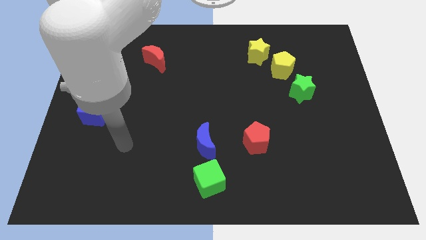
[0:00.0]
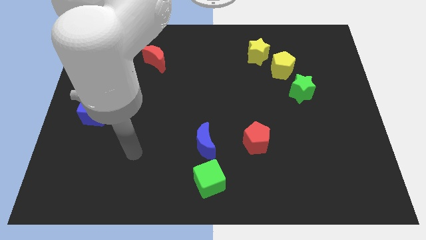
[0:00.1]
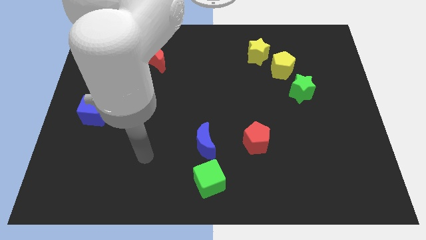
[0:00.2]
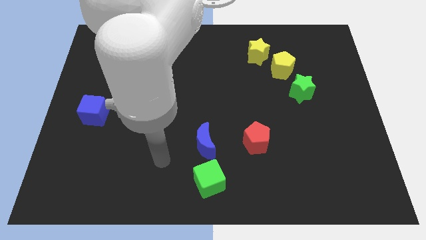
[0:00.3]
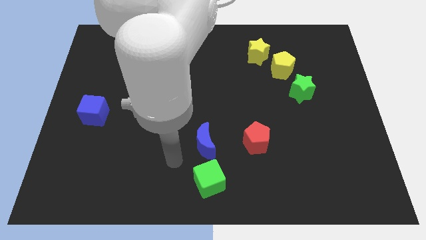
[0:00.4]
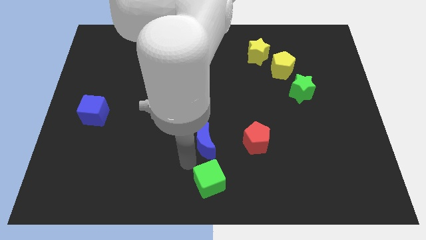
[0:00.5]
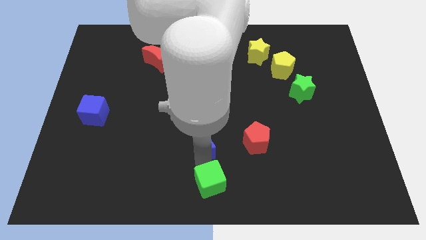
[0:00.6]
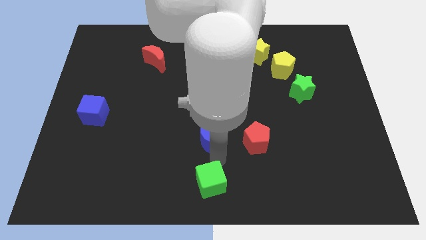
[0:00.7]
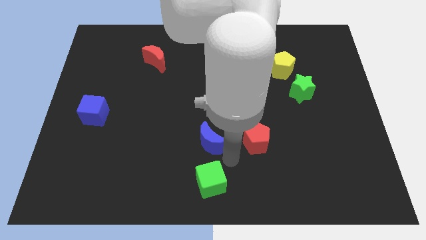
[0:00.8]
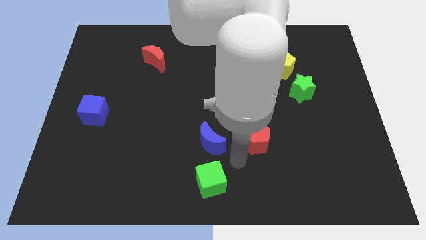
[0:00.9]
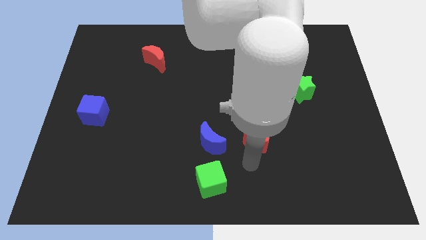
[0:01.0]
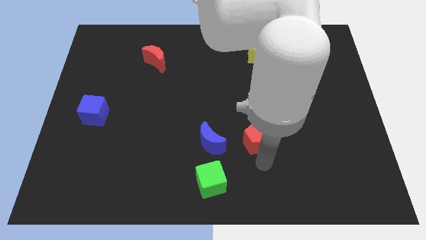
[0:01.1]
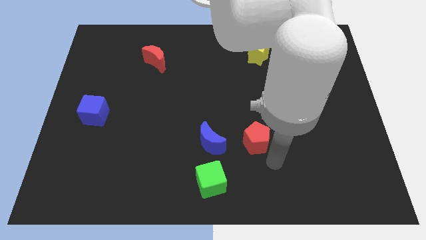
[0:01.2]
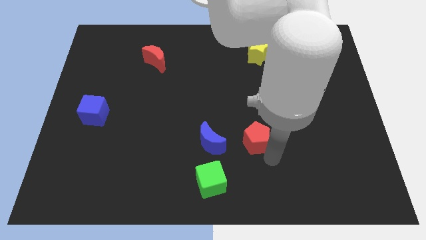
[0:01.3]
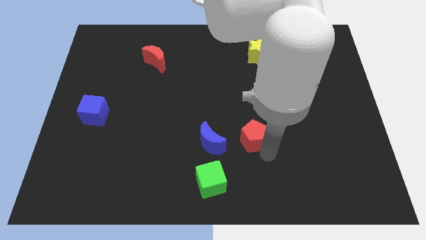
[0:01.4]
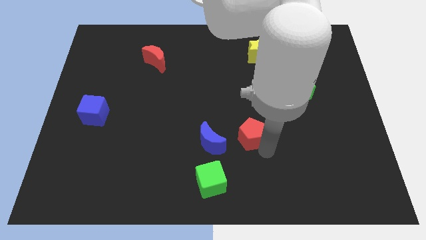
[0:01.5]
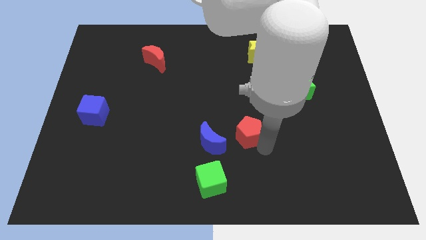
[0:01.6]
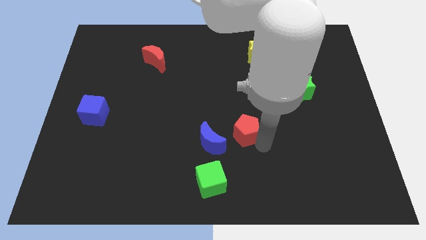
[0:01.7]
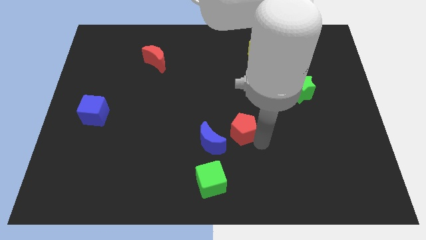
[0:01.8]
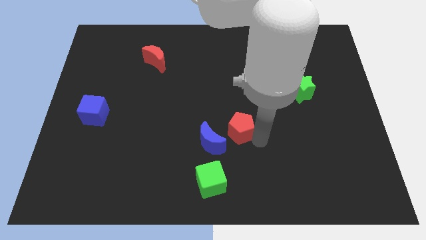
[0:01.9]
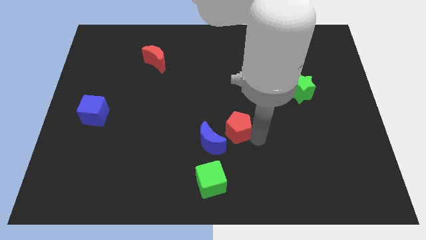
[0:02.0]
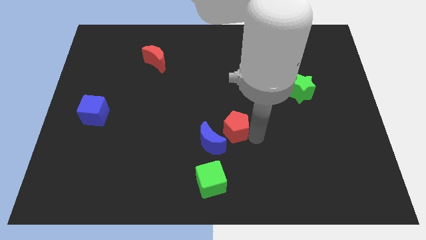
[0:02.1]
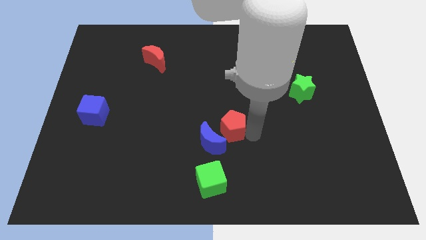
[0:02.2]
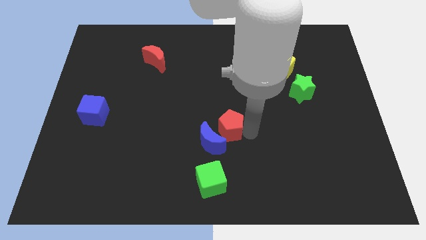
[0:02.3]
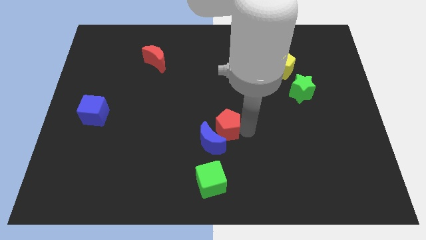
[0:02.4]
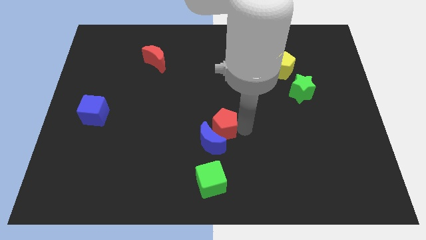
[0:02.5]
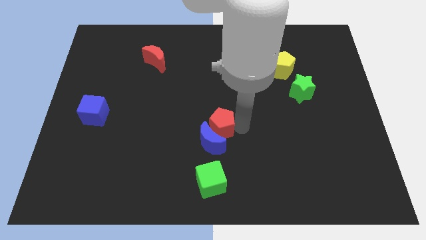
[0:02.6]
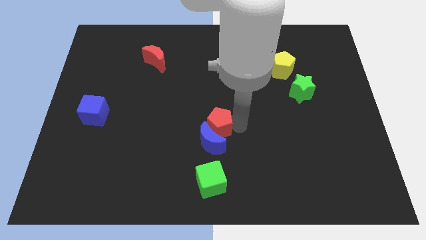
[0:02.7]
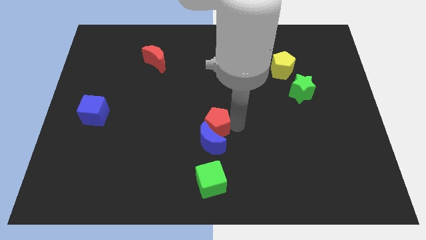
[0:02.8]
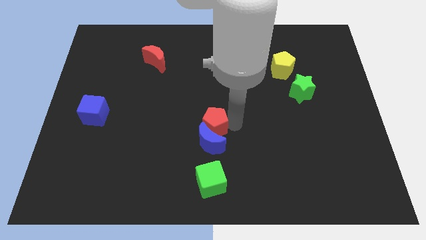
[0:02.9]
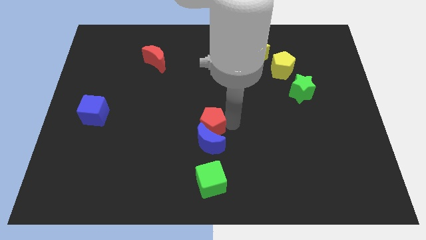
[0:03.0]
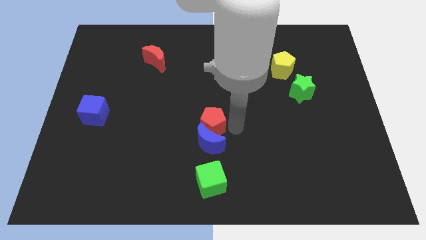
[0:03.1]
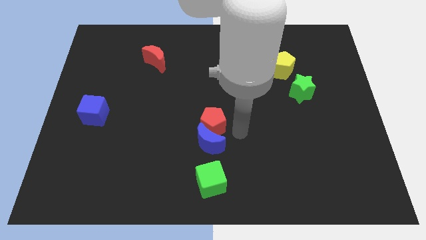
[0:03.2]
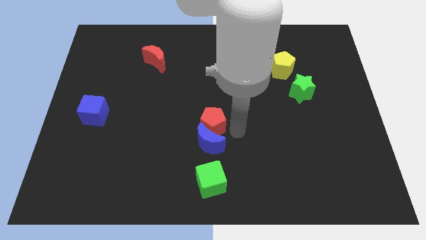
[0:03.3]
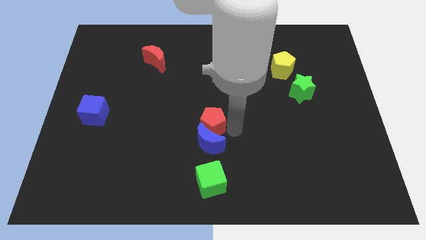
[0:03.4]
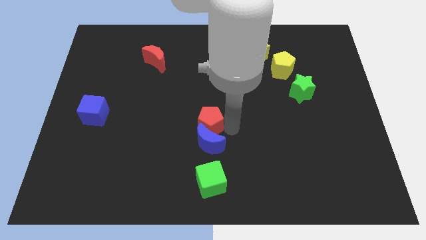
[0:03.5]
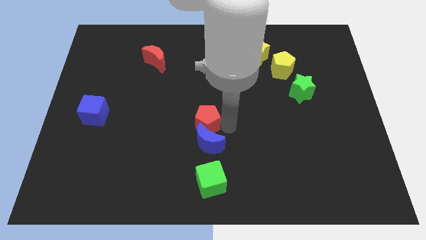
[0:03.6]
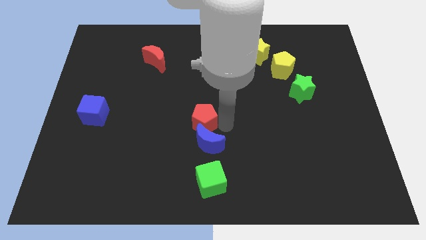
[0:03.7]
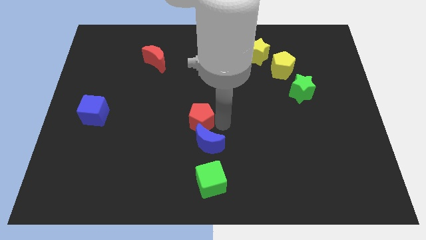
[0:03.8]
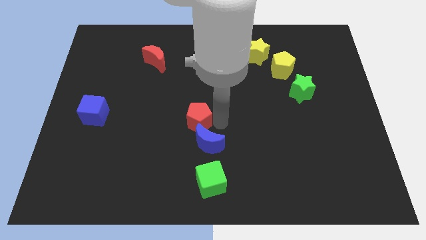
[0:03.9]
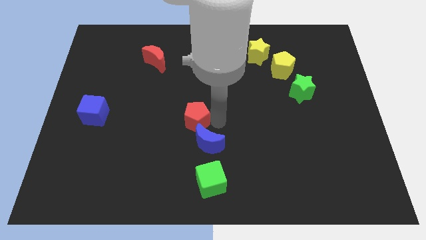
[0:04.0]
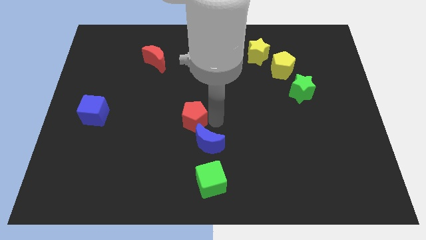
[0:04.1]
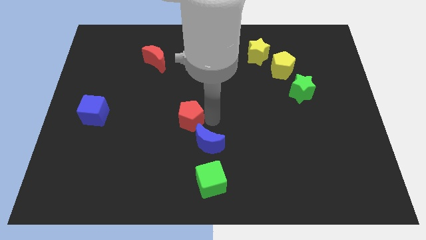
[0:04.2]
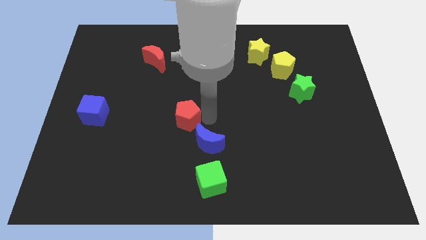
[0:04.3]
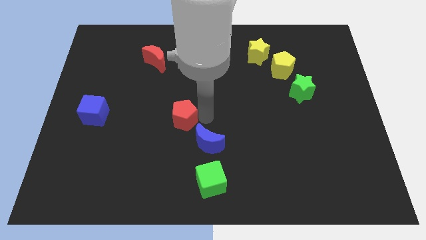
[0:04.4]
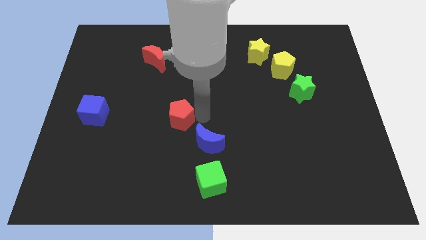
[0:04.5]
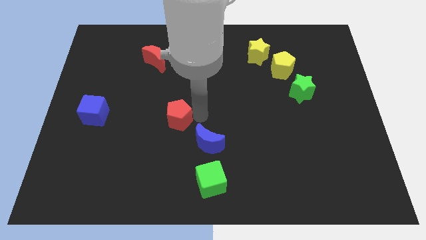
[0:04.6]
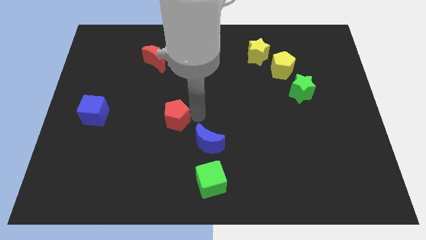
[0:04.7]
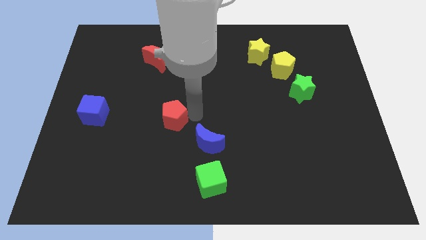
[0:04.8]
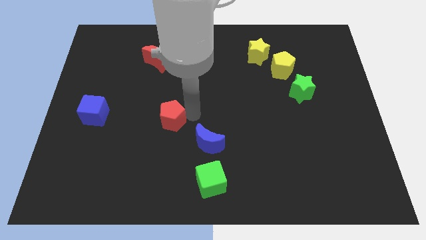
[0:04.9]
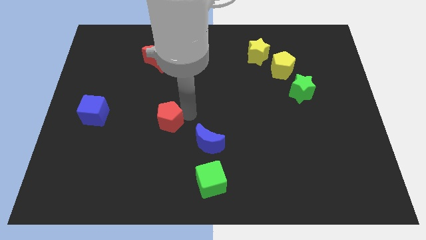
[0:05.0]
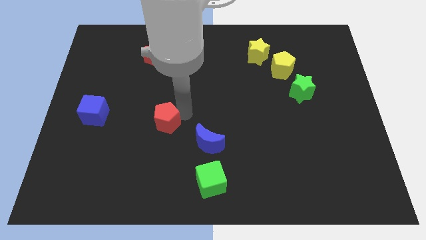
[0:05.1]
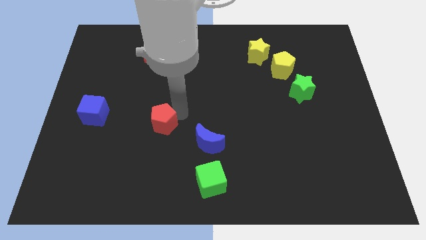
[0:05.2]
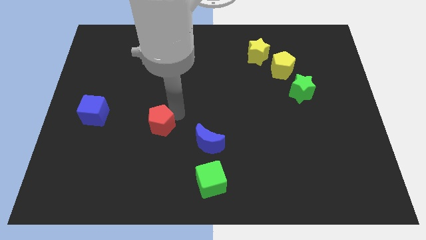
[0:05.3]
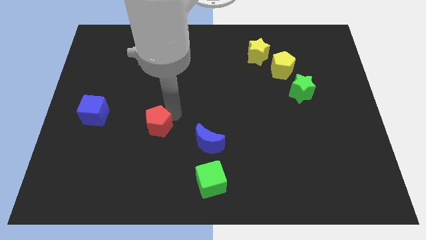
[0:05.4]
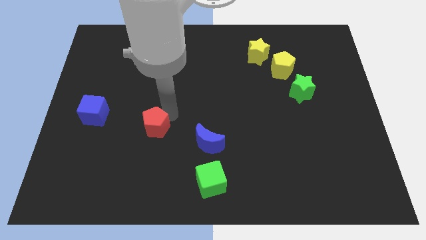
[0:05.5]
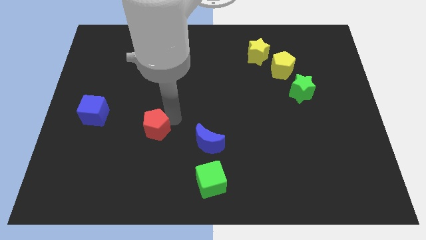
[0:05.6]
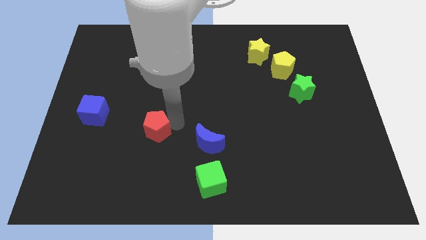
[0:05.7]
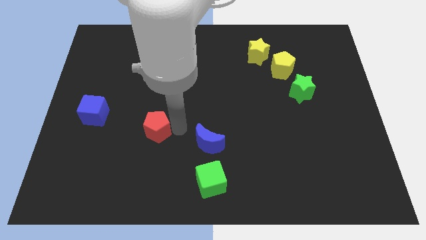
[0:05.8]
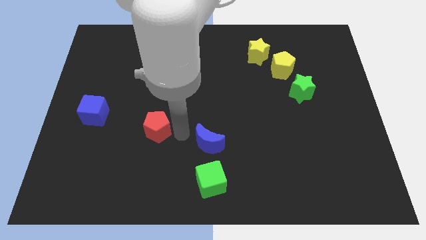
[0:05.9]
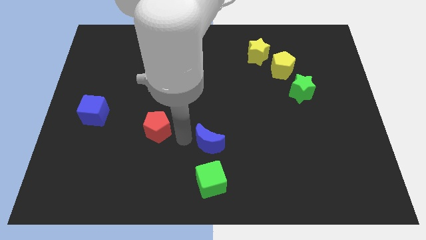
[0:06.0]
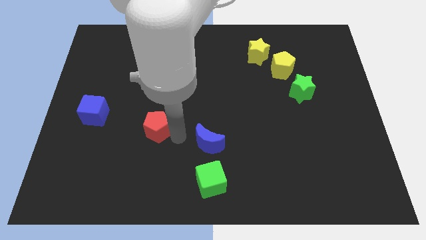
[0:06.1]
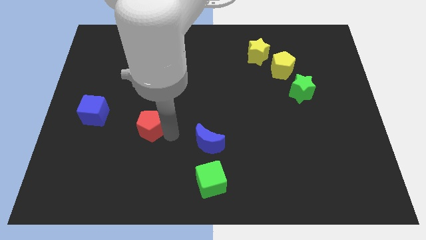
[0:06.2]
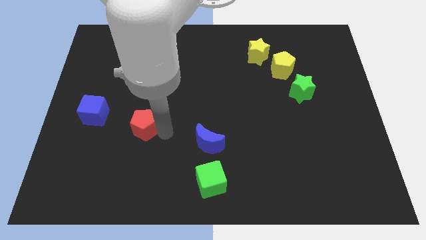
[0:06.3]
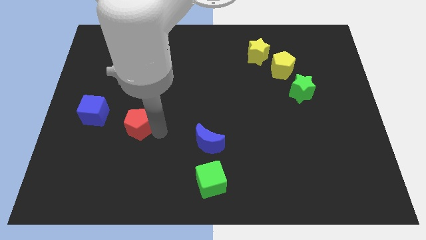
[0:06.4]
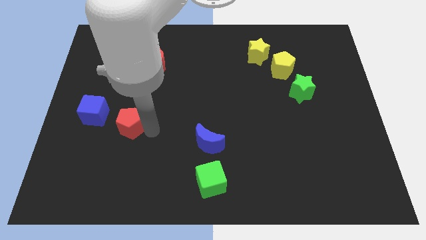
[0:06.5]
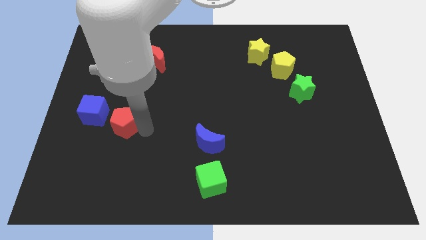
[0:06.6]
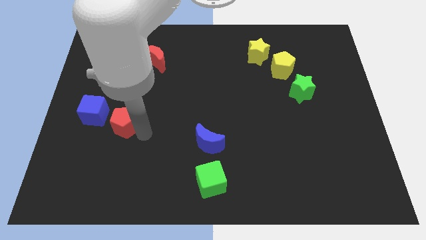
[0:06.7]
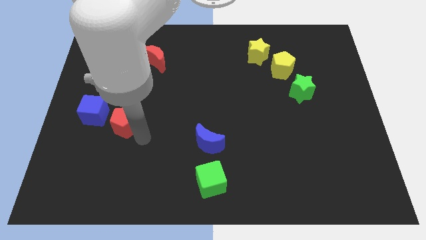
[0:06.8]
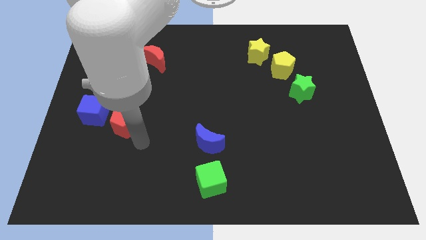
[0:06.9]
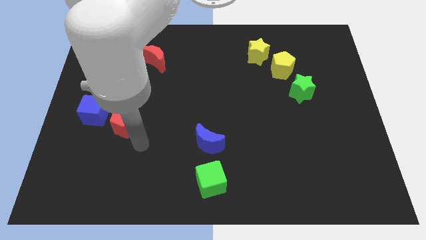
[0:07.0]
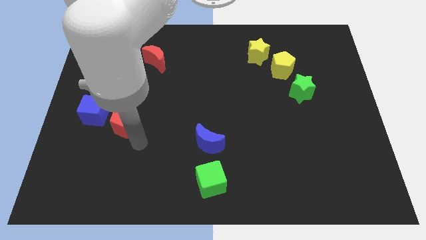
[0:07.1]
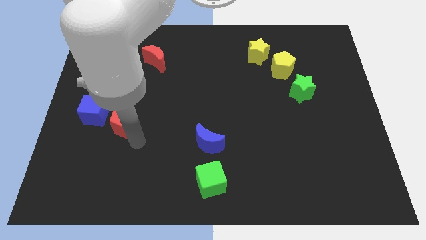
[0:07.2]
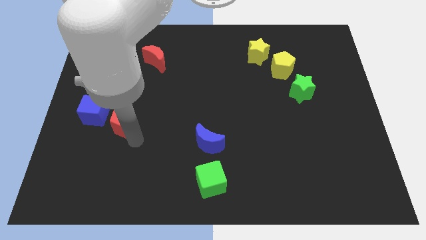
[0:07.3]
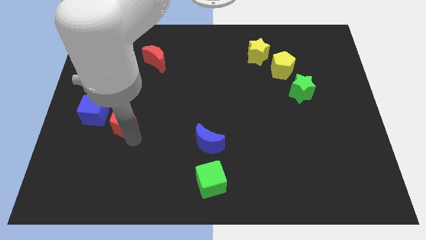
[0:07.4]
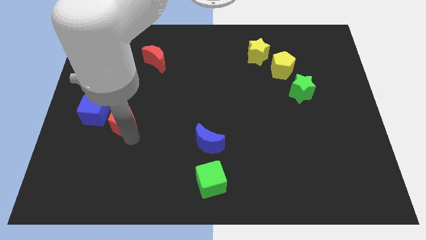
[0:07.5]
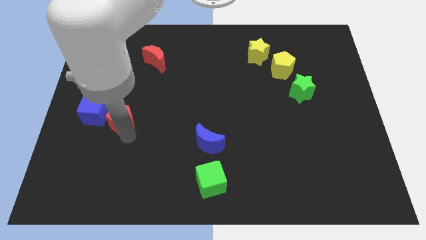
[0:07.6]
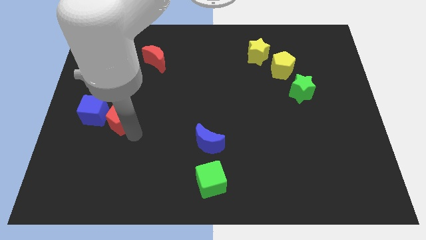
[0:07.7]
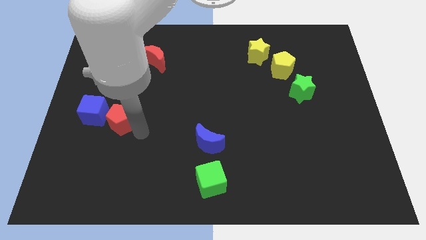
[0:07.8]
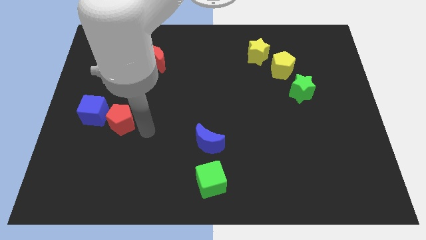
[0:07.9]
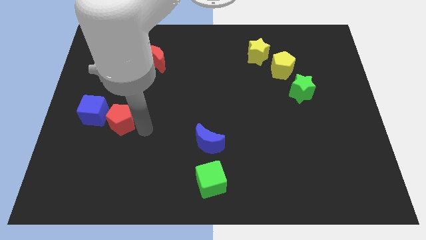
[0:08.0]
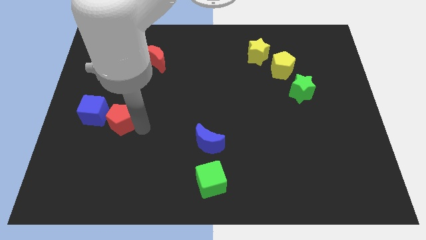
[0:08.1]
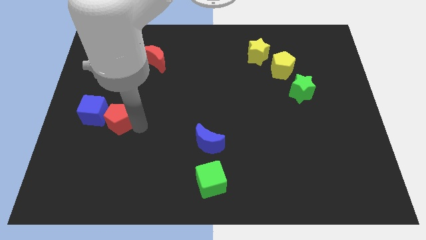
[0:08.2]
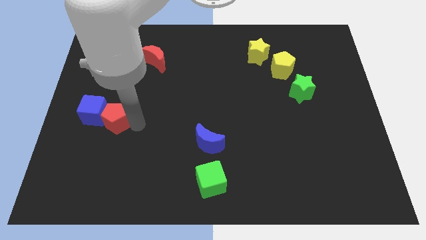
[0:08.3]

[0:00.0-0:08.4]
move the red pentagon towards the blue cube
